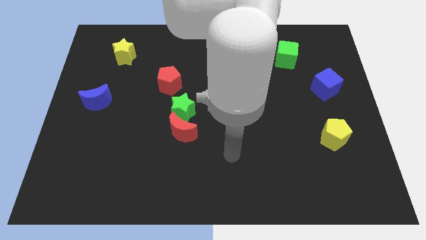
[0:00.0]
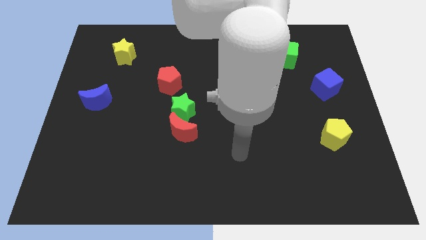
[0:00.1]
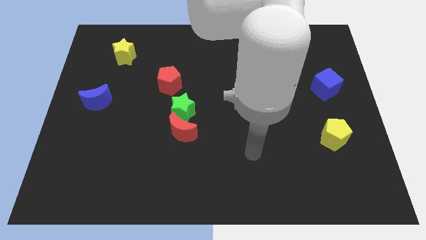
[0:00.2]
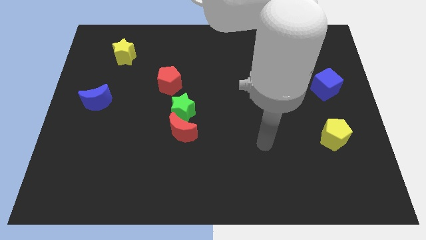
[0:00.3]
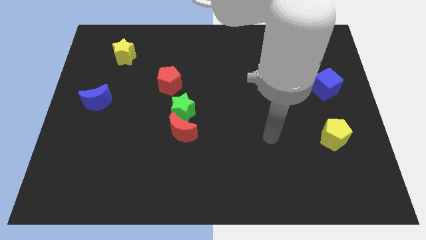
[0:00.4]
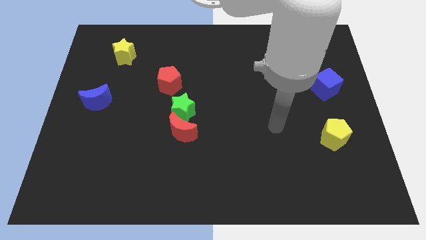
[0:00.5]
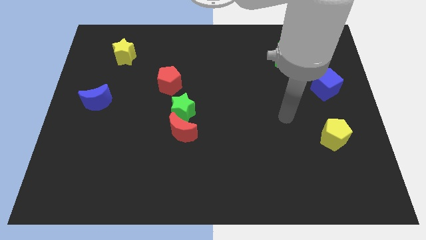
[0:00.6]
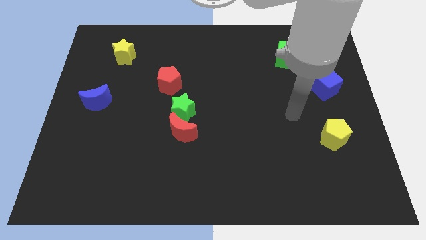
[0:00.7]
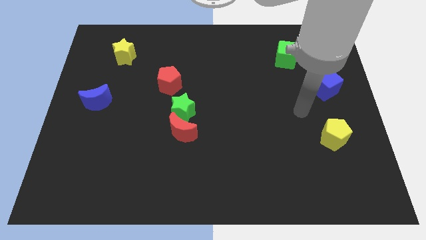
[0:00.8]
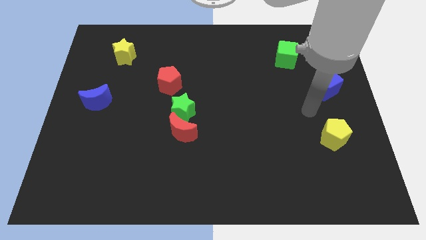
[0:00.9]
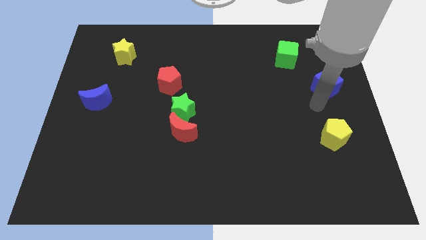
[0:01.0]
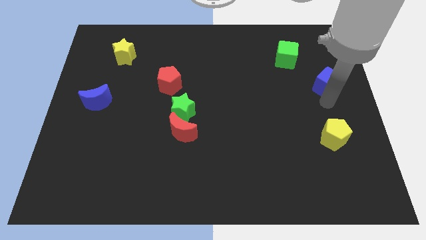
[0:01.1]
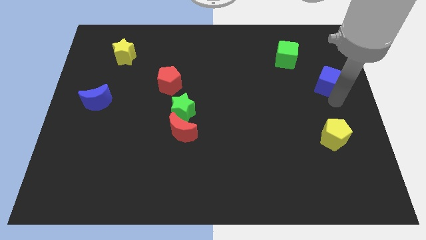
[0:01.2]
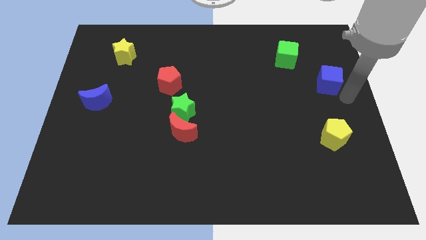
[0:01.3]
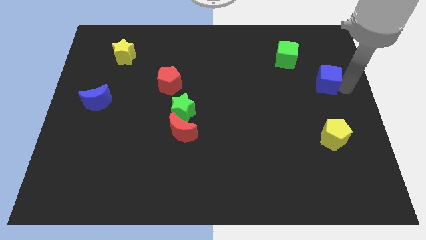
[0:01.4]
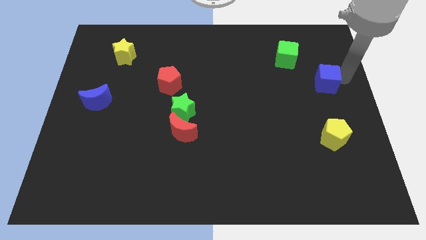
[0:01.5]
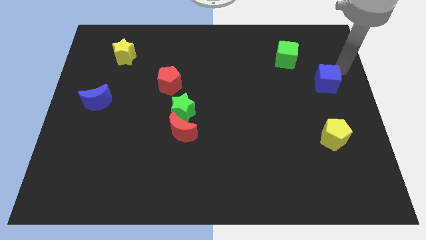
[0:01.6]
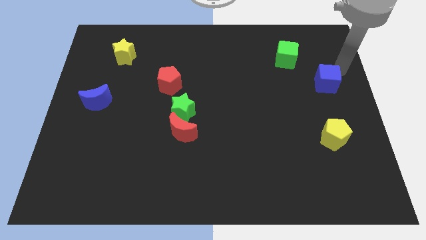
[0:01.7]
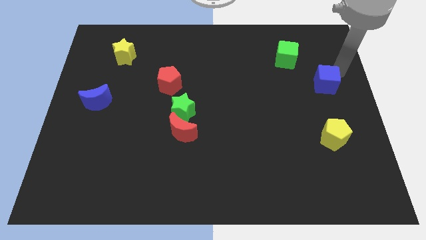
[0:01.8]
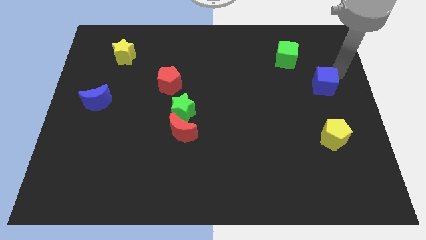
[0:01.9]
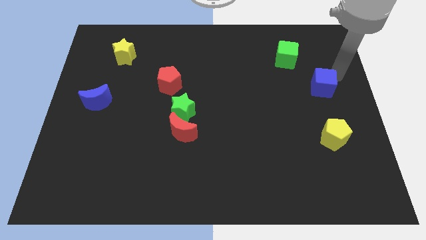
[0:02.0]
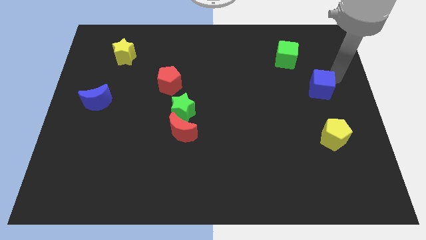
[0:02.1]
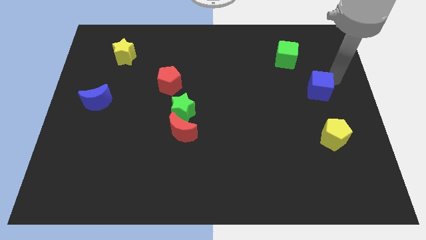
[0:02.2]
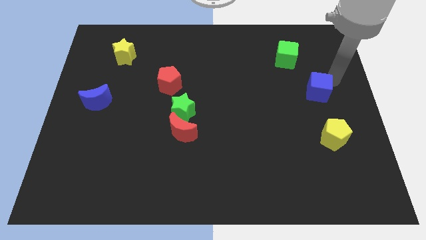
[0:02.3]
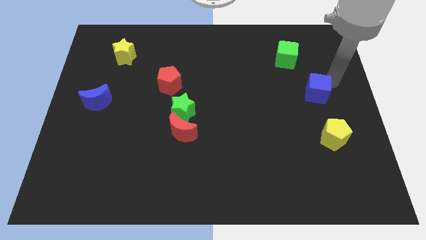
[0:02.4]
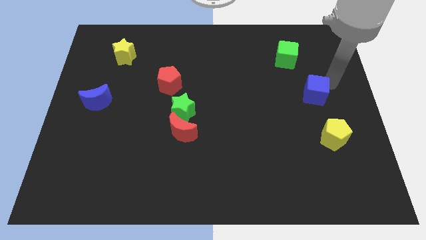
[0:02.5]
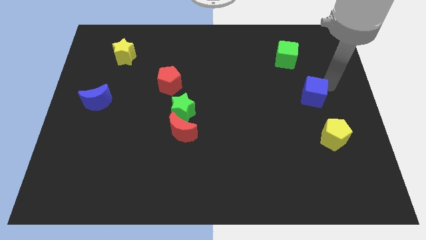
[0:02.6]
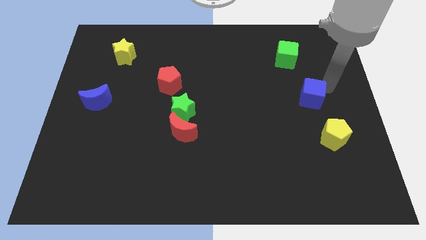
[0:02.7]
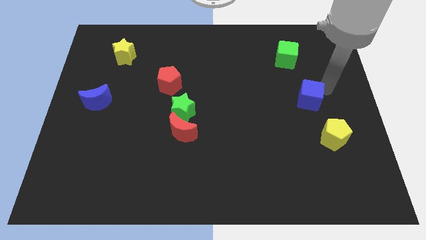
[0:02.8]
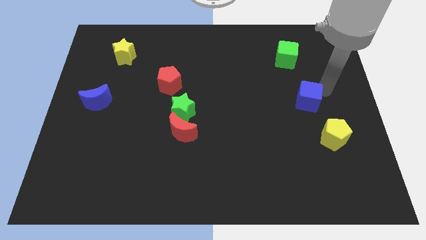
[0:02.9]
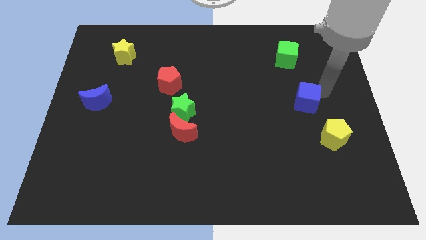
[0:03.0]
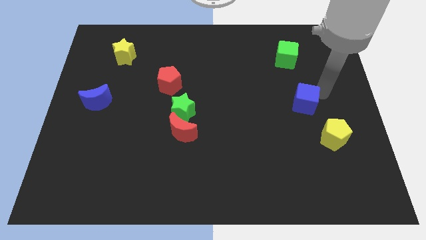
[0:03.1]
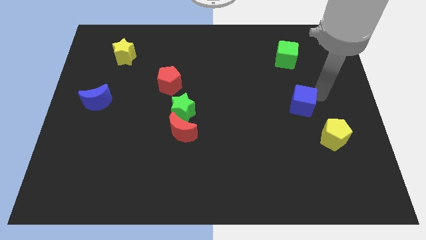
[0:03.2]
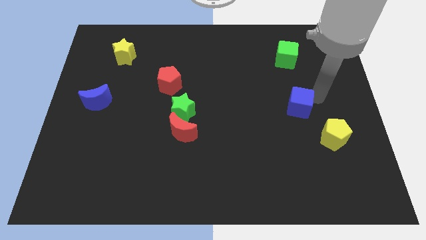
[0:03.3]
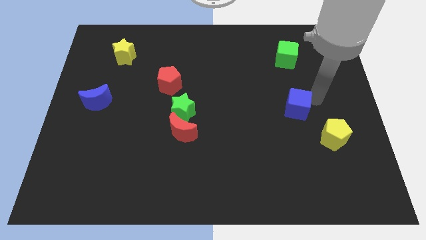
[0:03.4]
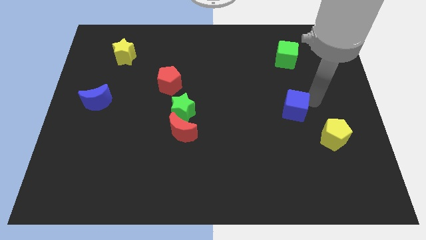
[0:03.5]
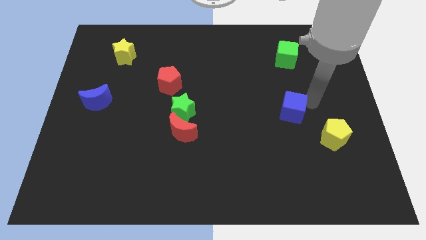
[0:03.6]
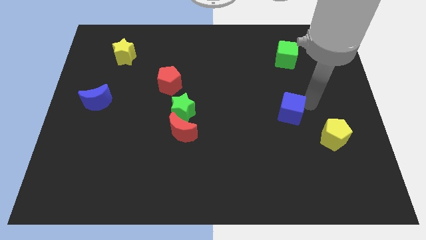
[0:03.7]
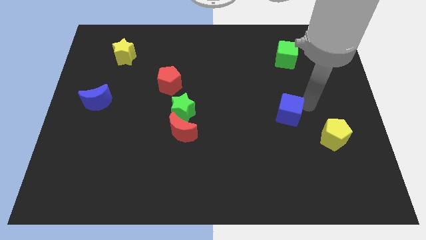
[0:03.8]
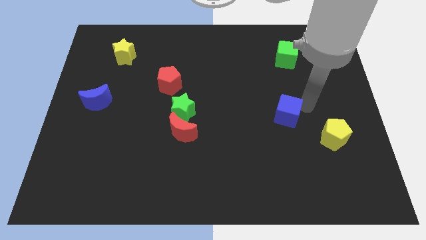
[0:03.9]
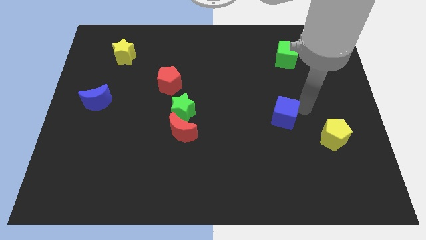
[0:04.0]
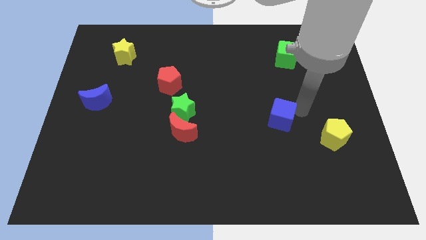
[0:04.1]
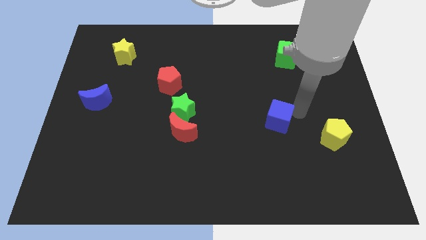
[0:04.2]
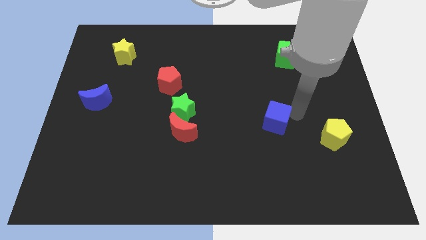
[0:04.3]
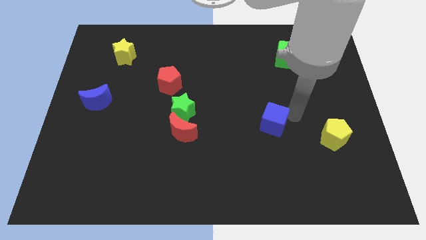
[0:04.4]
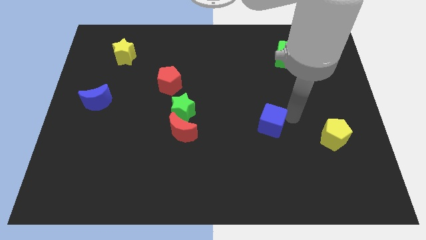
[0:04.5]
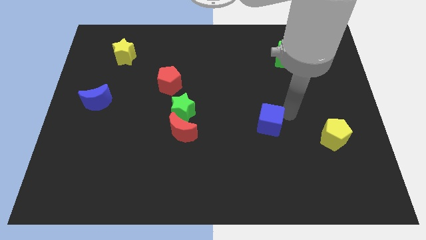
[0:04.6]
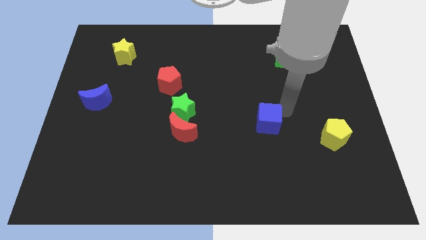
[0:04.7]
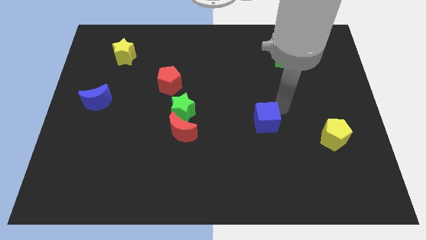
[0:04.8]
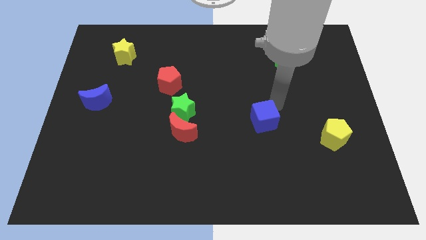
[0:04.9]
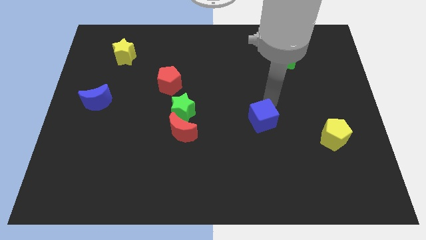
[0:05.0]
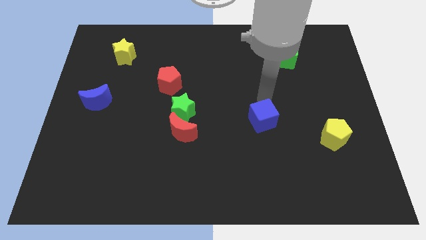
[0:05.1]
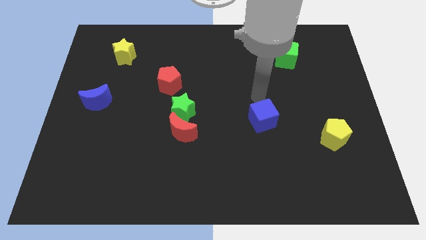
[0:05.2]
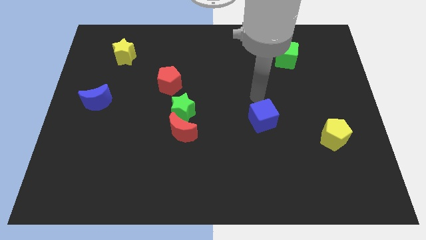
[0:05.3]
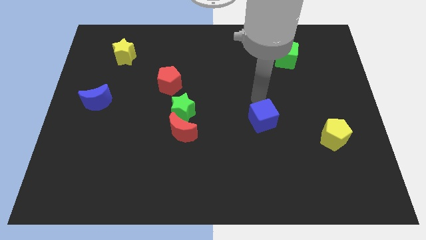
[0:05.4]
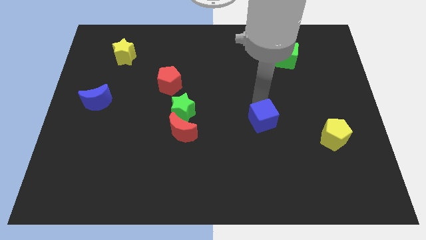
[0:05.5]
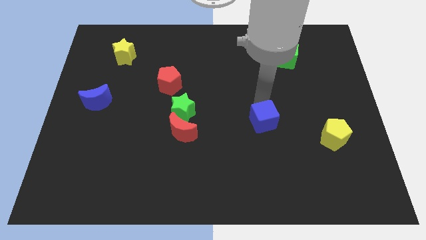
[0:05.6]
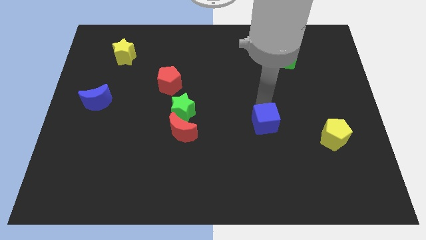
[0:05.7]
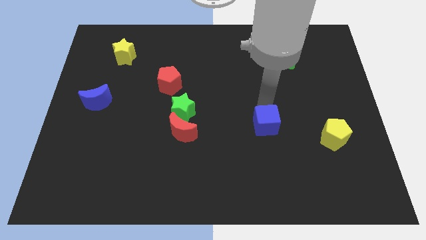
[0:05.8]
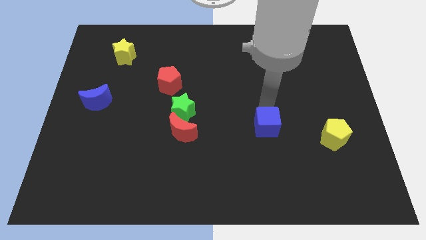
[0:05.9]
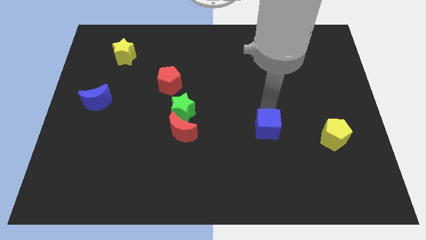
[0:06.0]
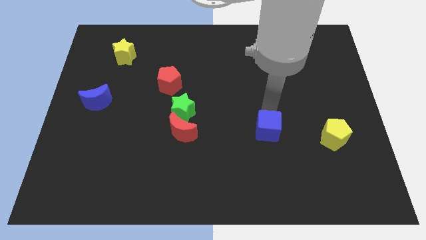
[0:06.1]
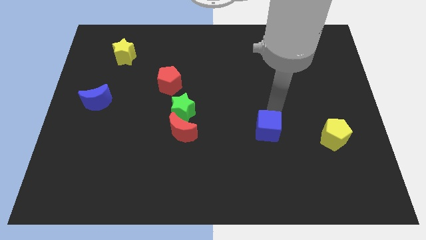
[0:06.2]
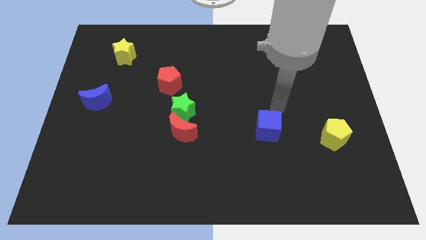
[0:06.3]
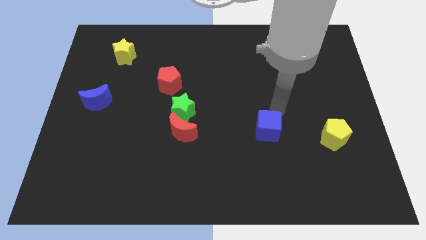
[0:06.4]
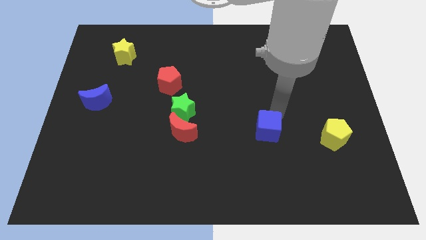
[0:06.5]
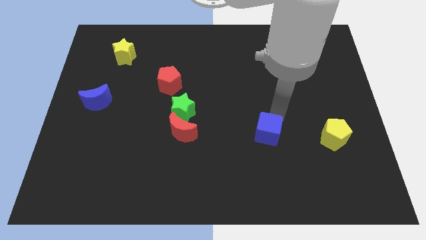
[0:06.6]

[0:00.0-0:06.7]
move the blue cube downwards and then left

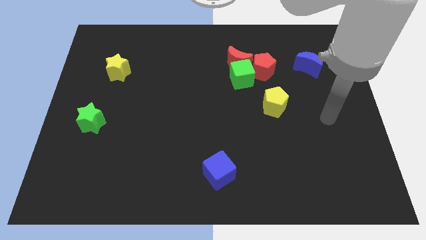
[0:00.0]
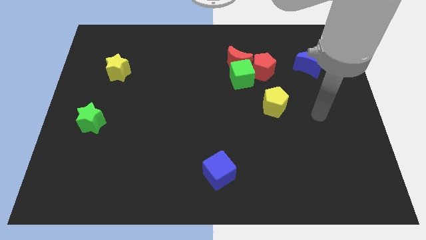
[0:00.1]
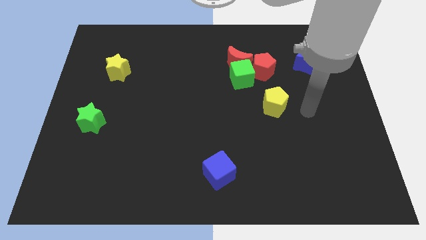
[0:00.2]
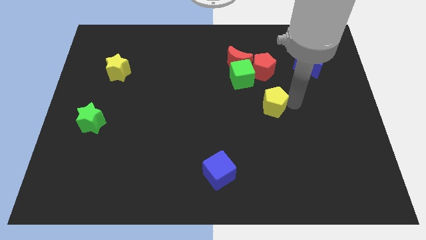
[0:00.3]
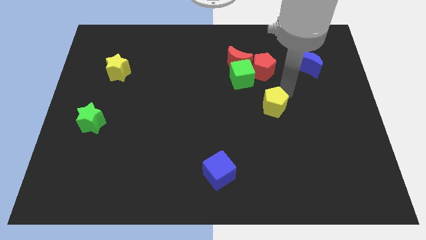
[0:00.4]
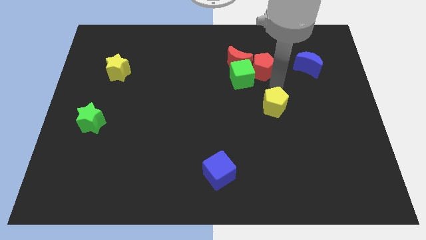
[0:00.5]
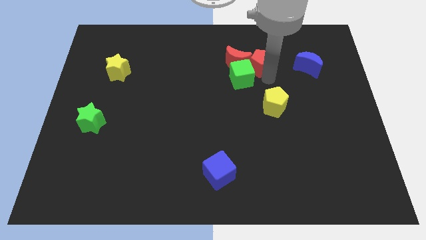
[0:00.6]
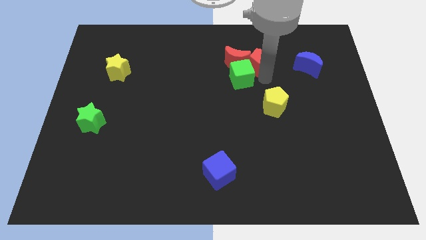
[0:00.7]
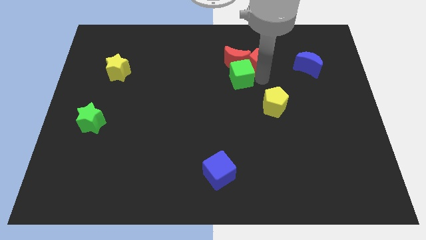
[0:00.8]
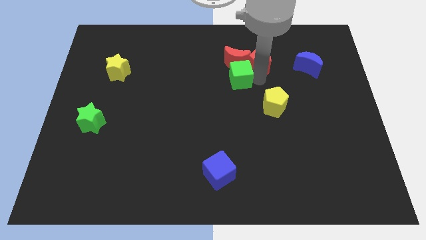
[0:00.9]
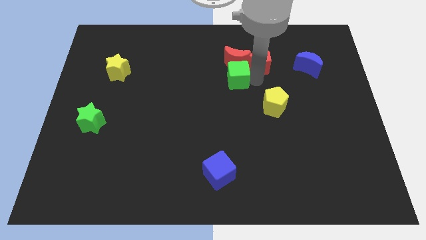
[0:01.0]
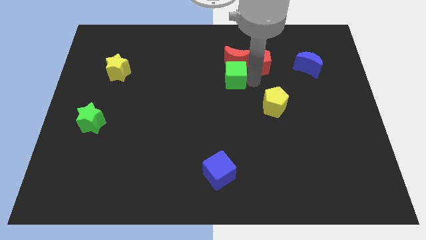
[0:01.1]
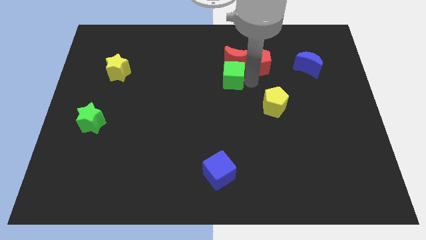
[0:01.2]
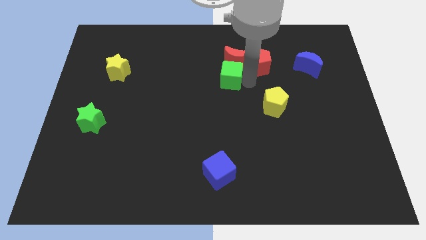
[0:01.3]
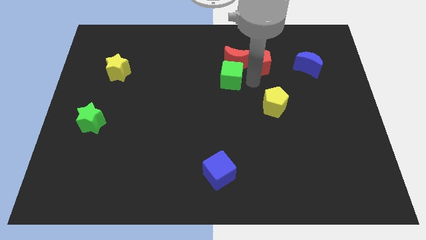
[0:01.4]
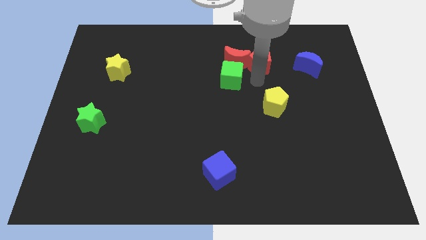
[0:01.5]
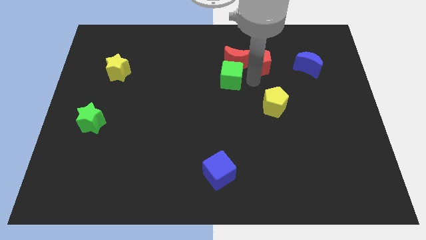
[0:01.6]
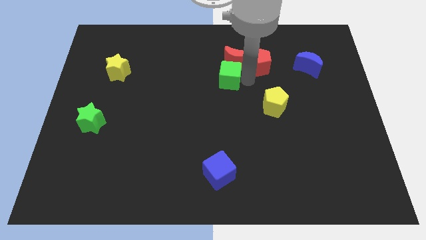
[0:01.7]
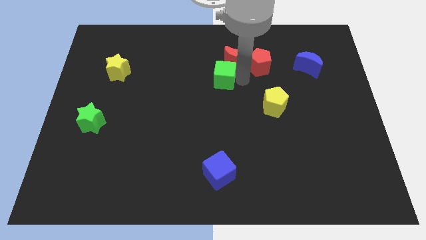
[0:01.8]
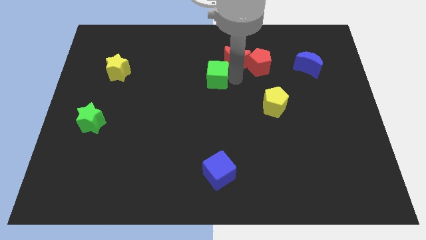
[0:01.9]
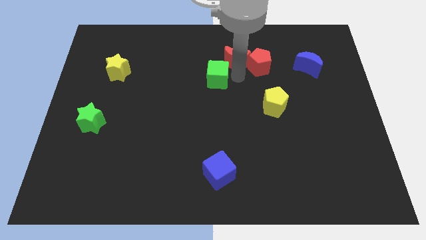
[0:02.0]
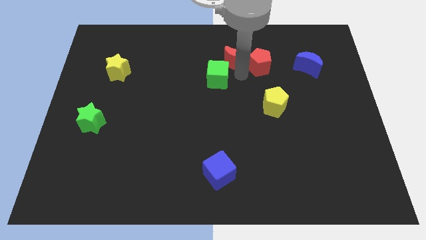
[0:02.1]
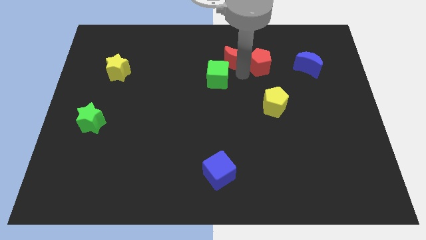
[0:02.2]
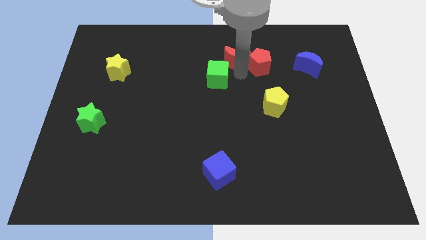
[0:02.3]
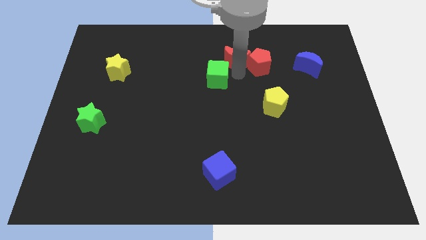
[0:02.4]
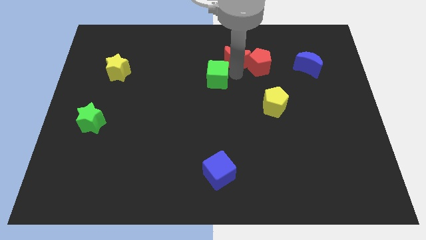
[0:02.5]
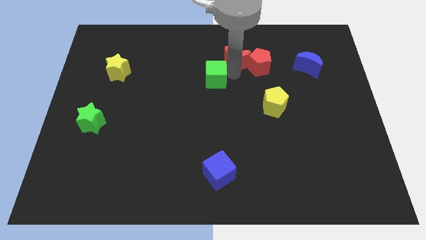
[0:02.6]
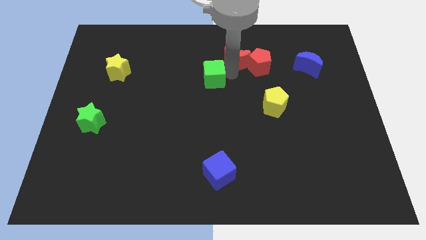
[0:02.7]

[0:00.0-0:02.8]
slightly push the green cube left
